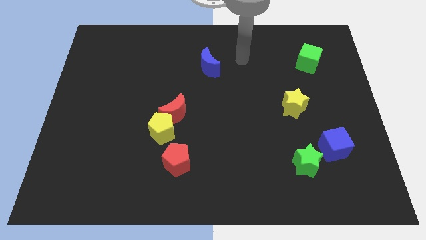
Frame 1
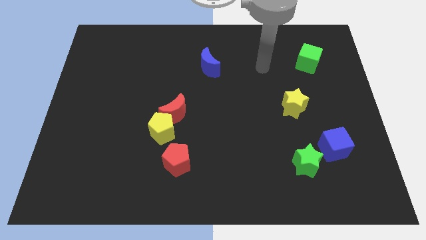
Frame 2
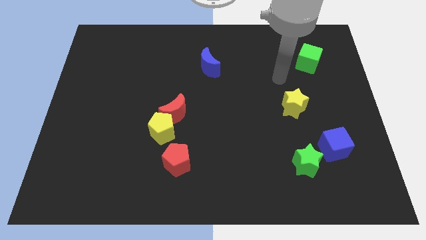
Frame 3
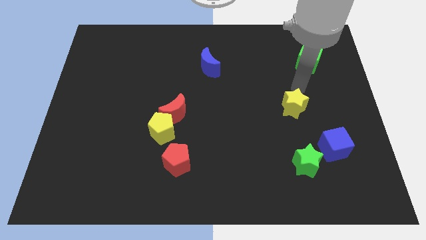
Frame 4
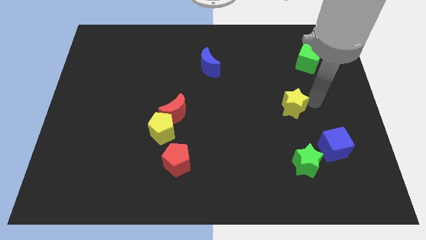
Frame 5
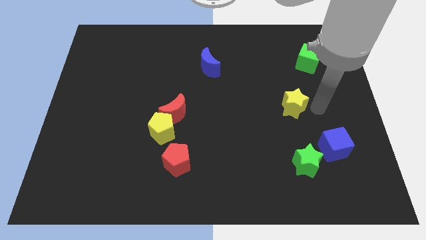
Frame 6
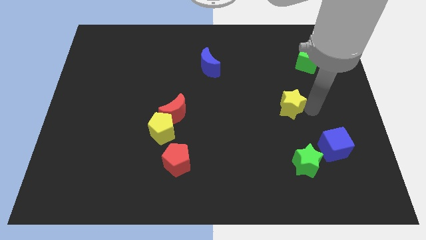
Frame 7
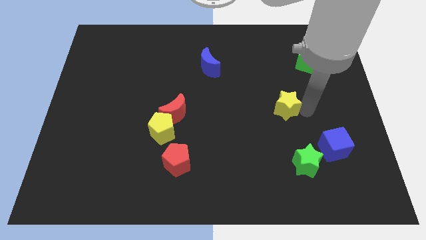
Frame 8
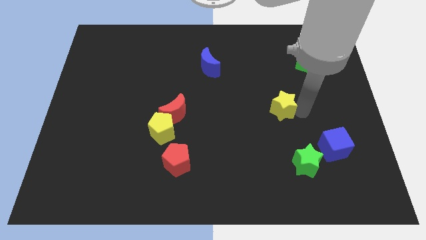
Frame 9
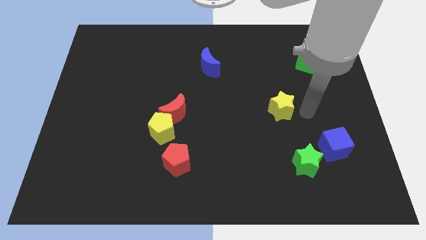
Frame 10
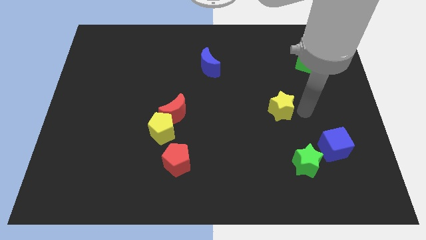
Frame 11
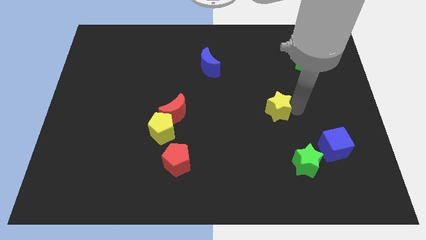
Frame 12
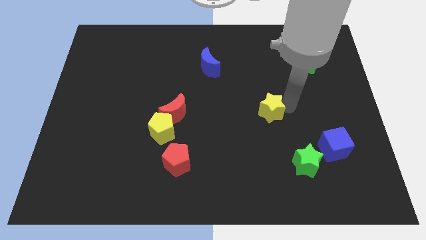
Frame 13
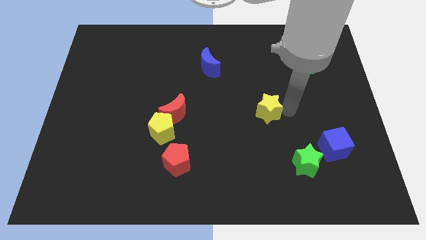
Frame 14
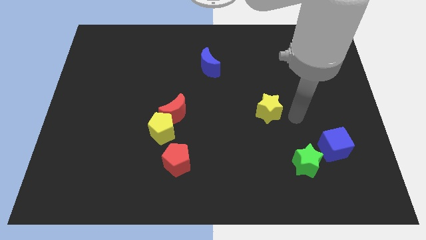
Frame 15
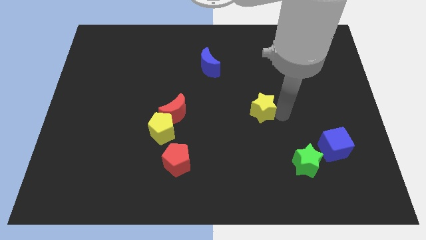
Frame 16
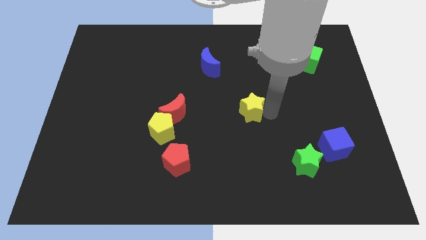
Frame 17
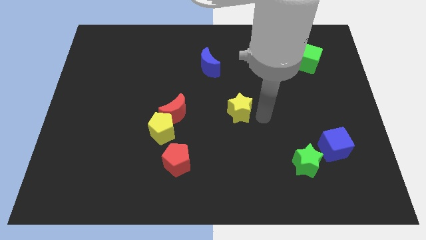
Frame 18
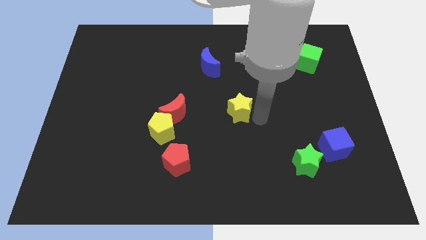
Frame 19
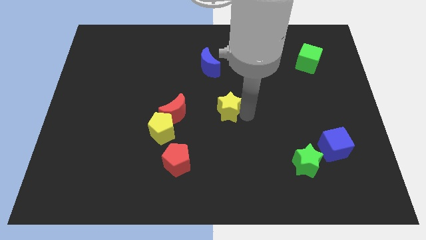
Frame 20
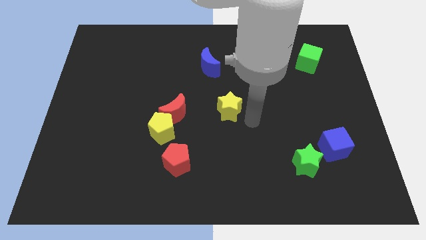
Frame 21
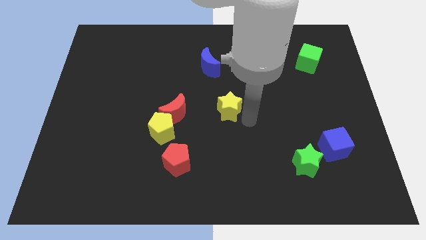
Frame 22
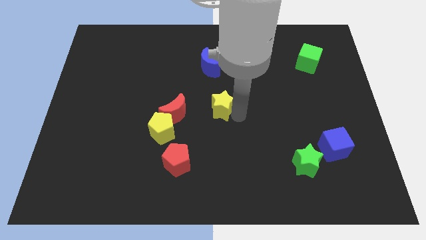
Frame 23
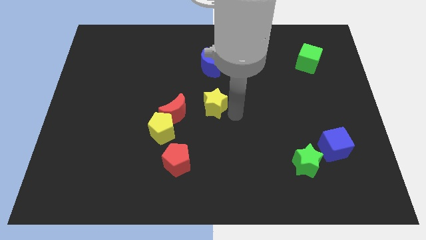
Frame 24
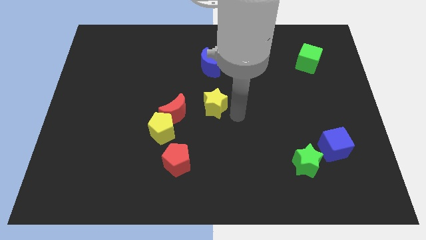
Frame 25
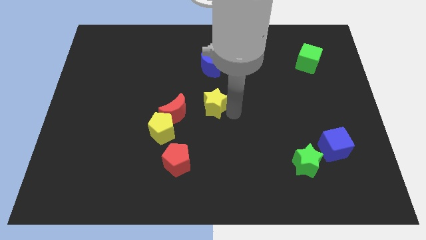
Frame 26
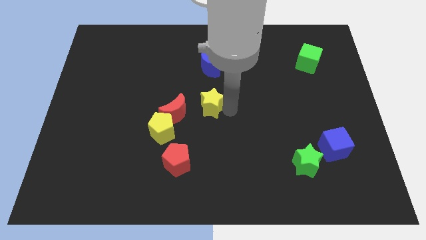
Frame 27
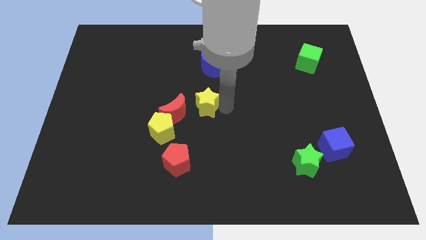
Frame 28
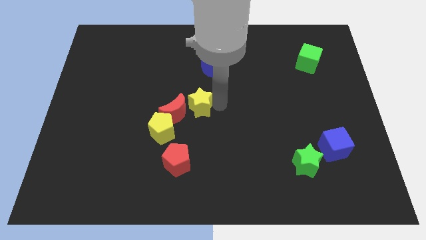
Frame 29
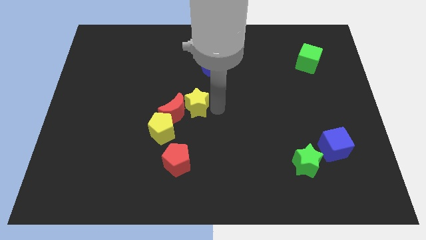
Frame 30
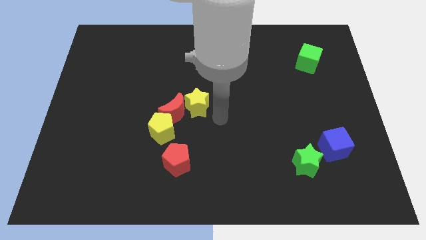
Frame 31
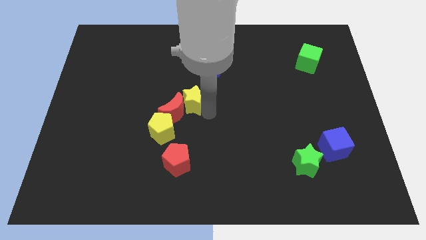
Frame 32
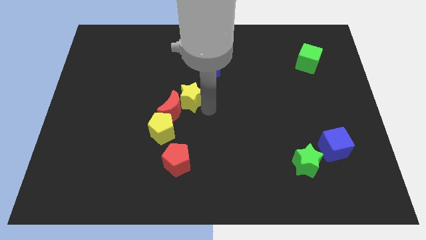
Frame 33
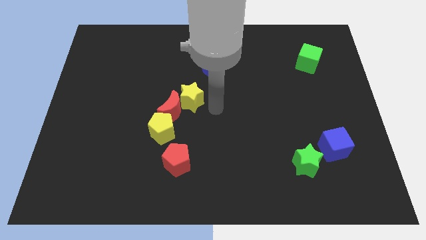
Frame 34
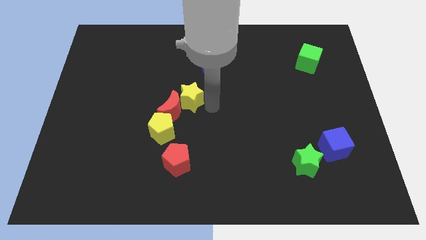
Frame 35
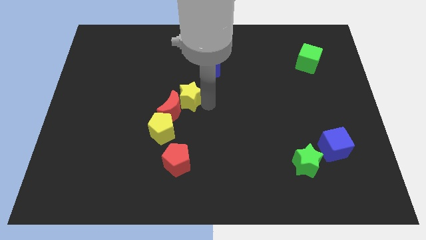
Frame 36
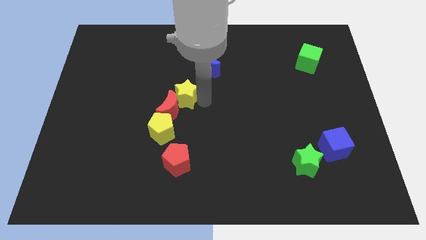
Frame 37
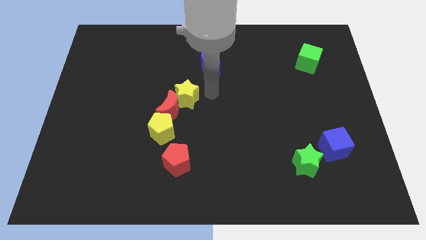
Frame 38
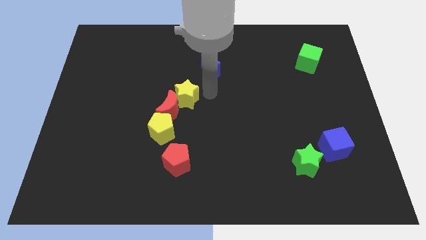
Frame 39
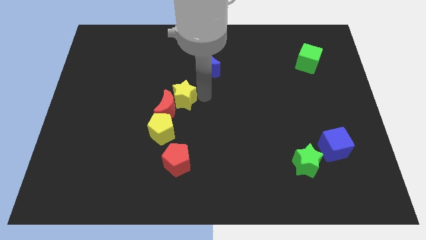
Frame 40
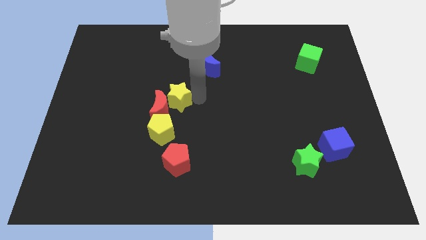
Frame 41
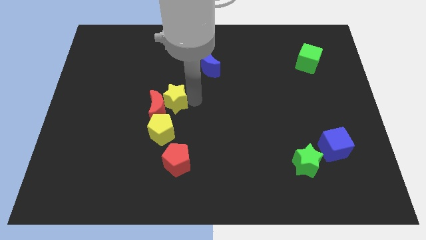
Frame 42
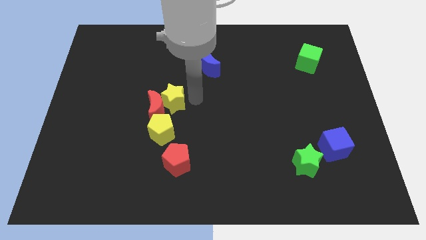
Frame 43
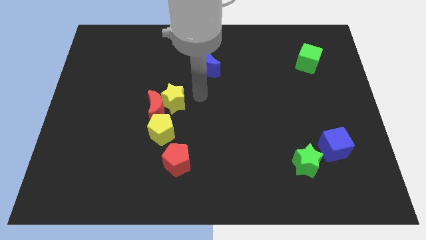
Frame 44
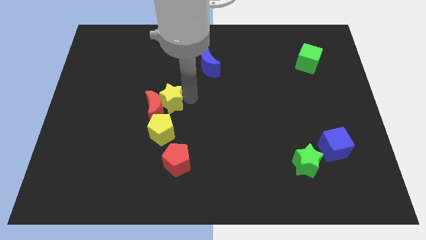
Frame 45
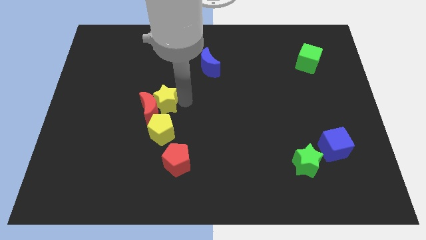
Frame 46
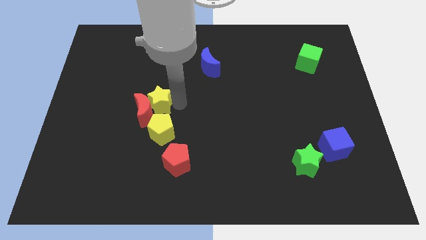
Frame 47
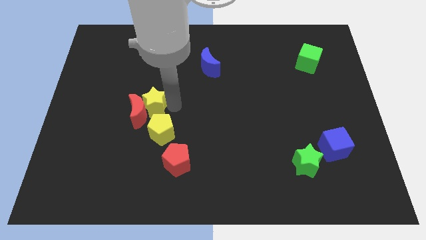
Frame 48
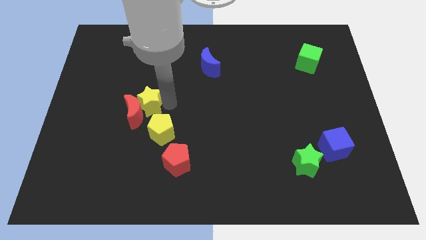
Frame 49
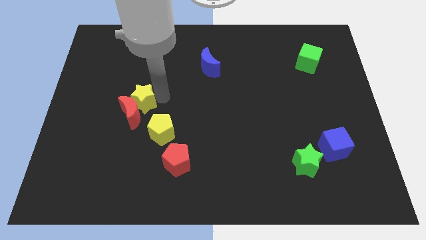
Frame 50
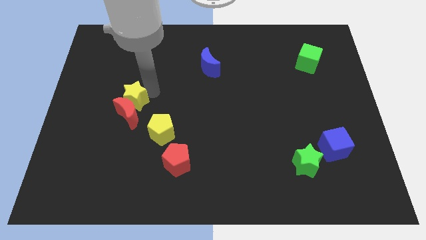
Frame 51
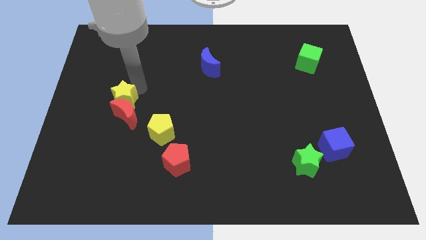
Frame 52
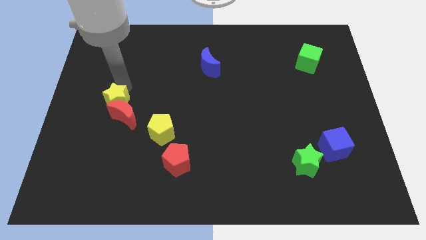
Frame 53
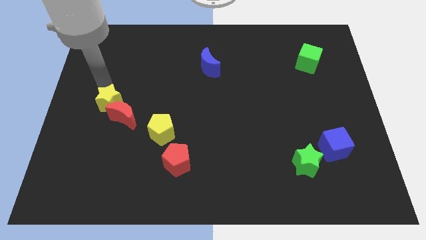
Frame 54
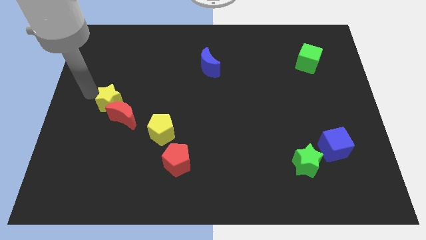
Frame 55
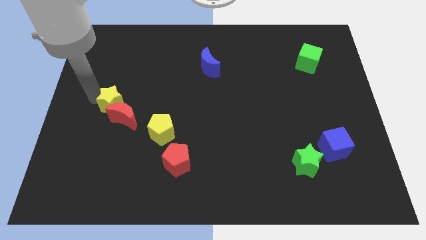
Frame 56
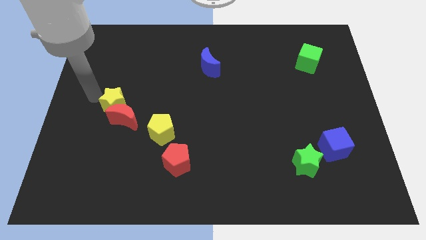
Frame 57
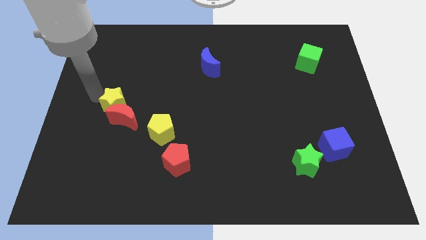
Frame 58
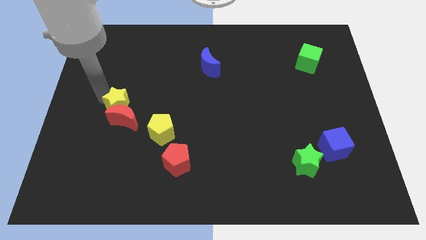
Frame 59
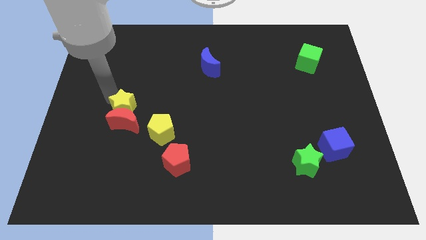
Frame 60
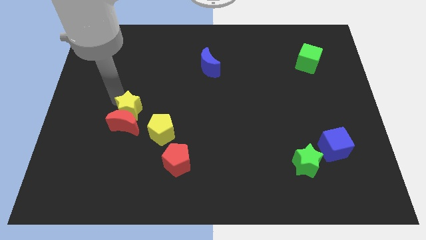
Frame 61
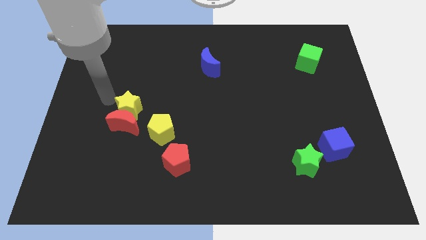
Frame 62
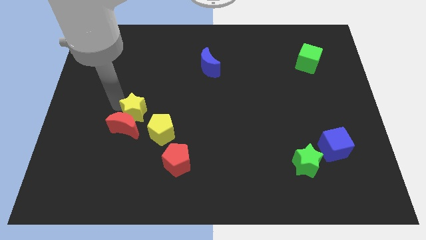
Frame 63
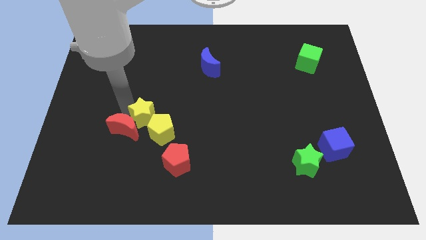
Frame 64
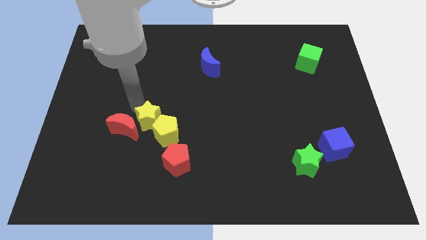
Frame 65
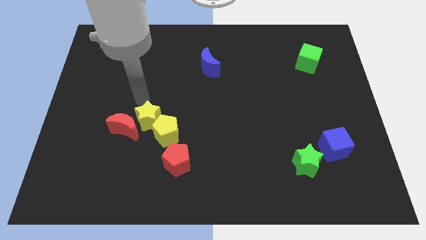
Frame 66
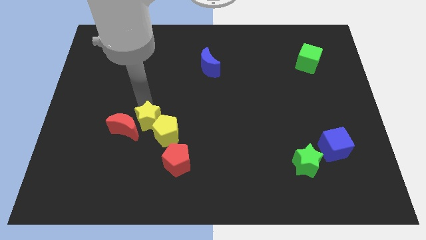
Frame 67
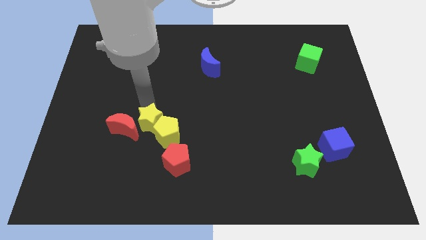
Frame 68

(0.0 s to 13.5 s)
push the yellow star diagonally up and to the left of the red pentagon
